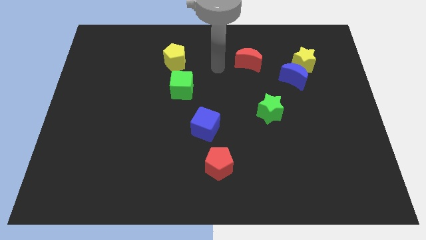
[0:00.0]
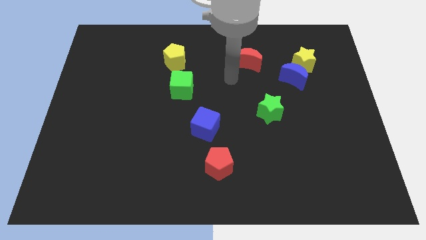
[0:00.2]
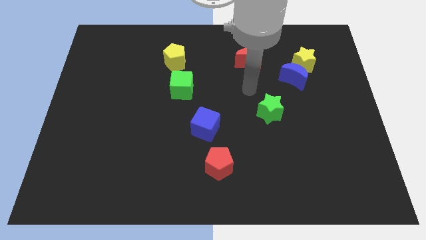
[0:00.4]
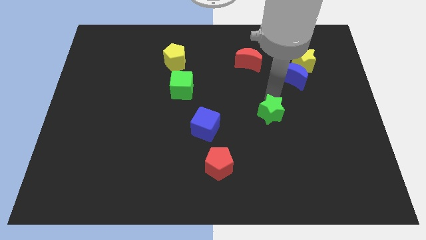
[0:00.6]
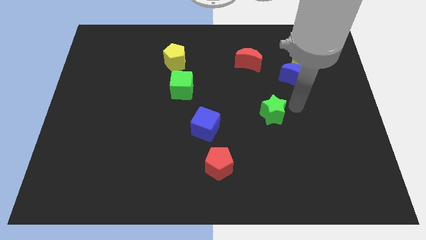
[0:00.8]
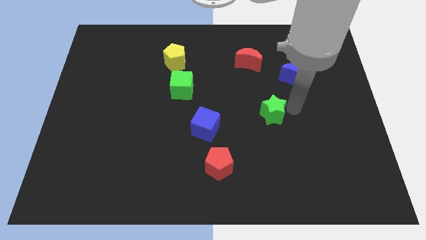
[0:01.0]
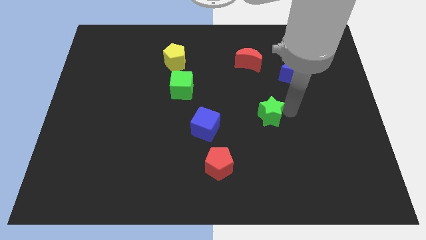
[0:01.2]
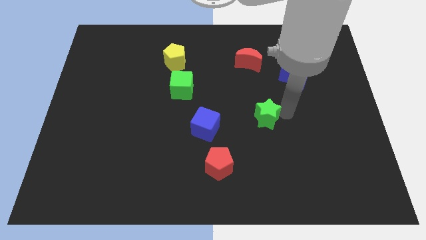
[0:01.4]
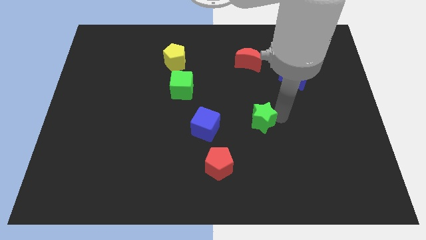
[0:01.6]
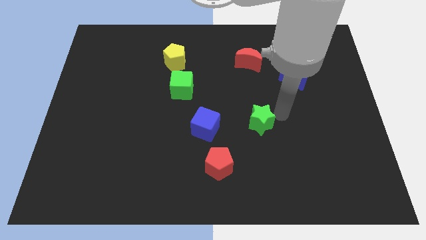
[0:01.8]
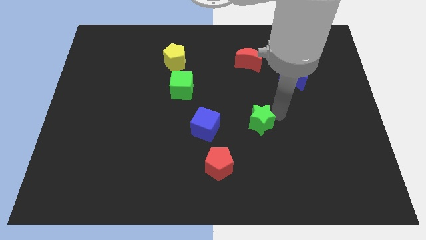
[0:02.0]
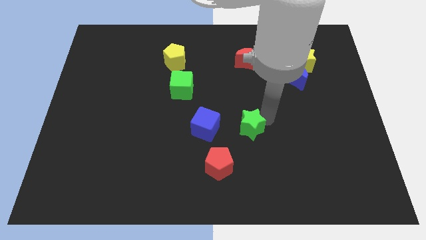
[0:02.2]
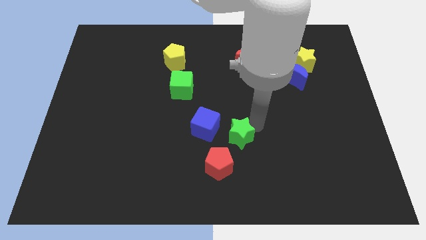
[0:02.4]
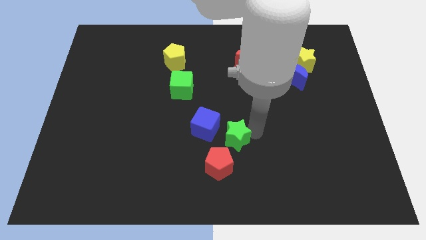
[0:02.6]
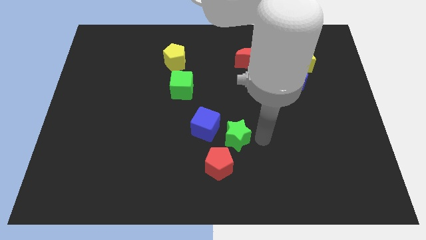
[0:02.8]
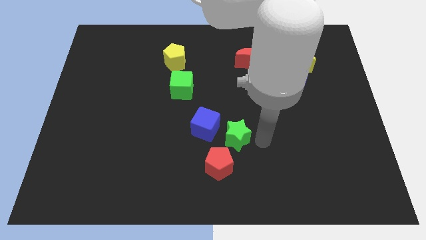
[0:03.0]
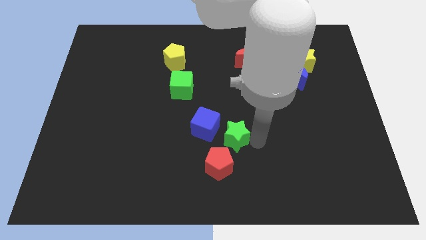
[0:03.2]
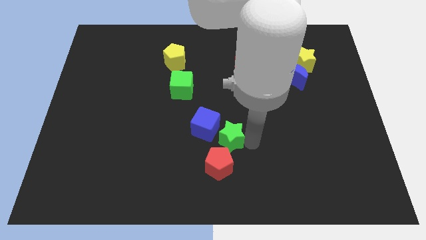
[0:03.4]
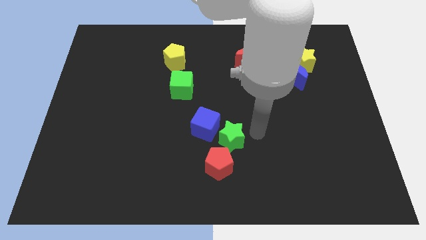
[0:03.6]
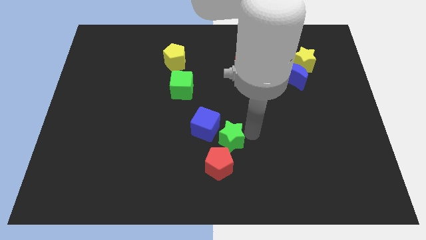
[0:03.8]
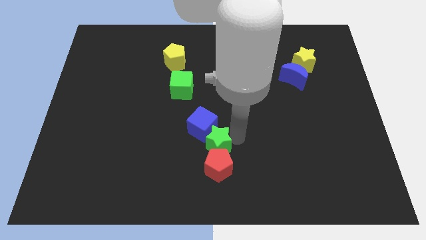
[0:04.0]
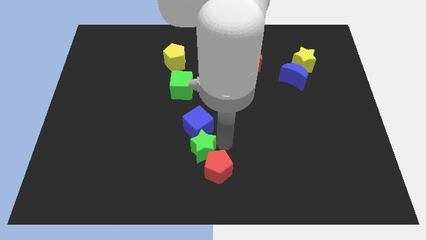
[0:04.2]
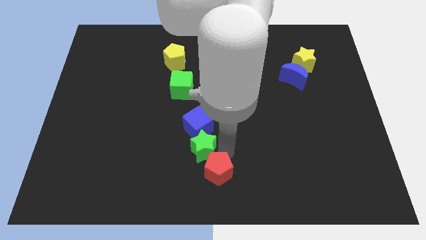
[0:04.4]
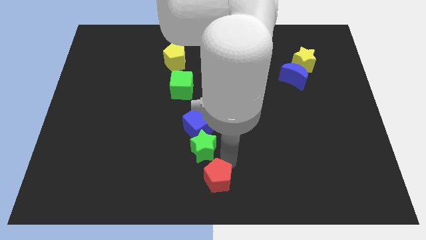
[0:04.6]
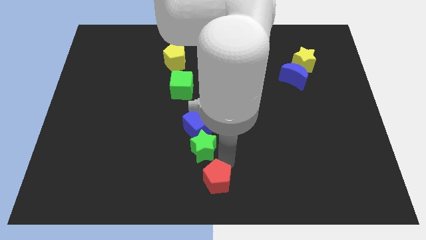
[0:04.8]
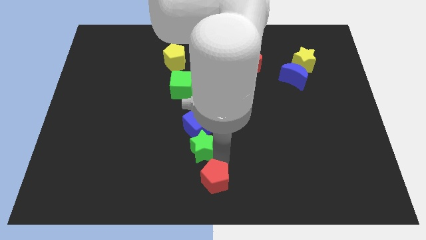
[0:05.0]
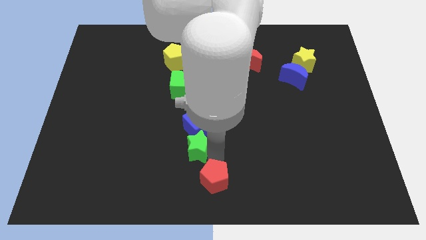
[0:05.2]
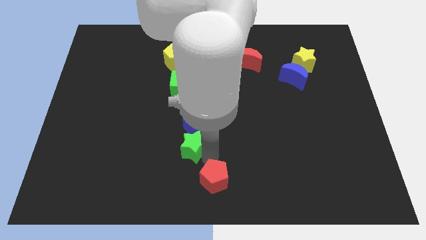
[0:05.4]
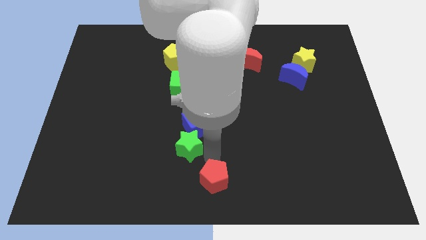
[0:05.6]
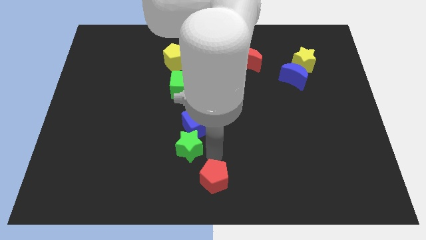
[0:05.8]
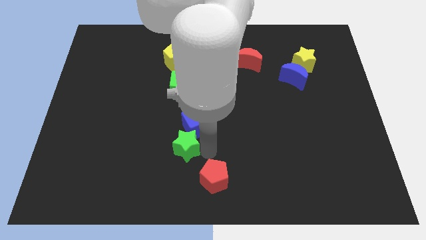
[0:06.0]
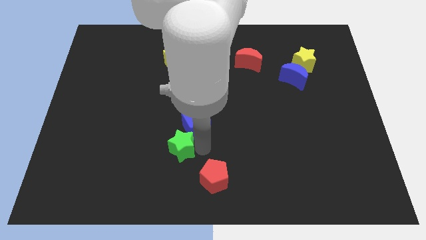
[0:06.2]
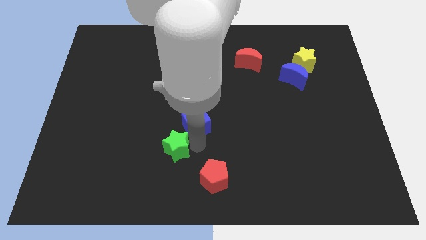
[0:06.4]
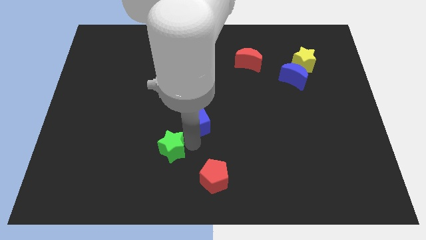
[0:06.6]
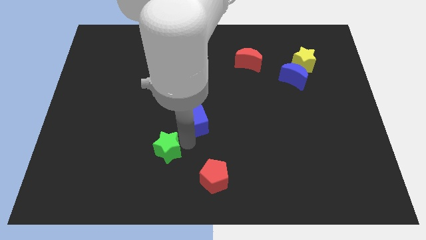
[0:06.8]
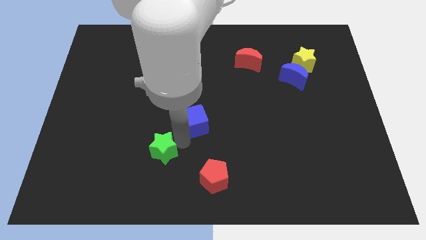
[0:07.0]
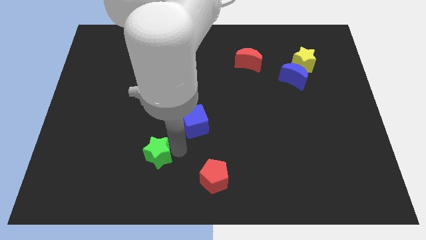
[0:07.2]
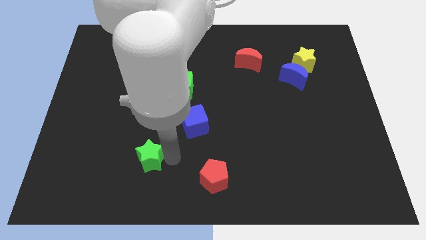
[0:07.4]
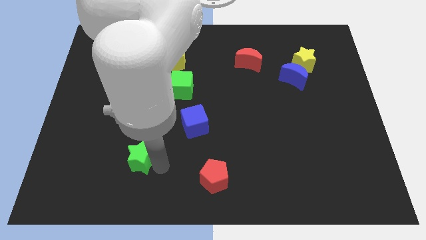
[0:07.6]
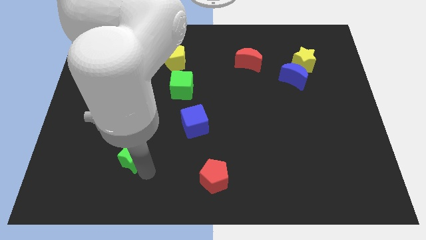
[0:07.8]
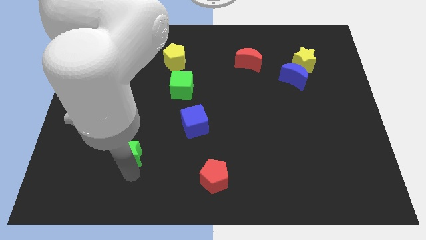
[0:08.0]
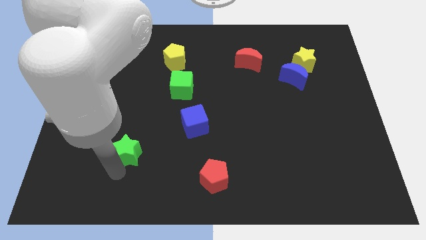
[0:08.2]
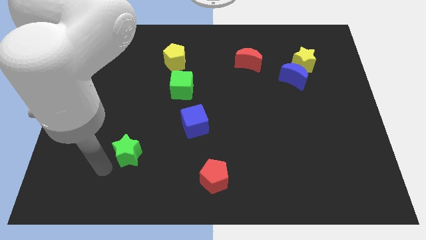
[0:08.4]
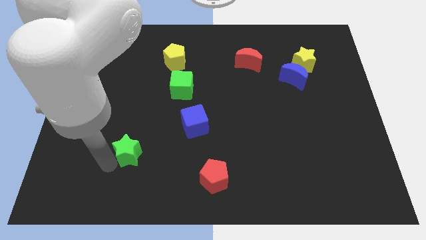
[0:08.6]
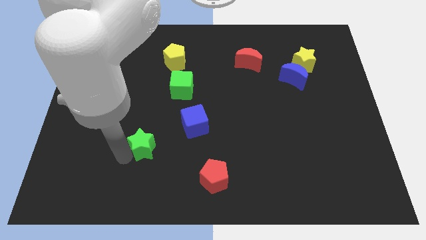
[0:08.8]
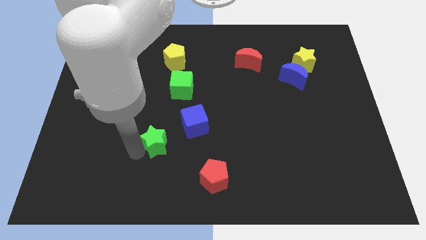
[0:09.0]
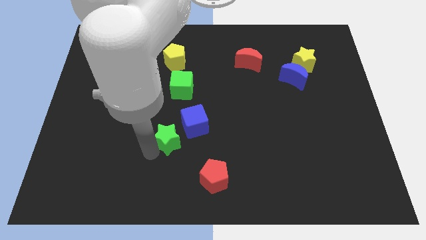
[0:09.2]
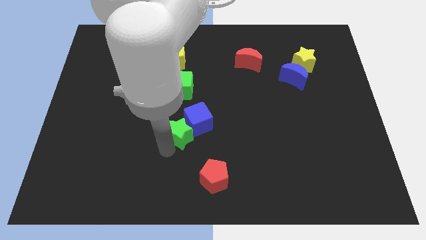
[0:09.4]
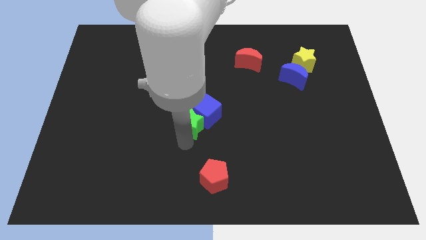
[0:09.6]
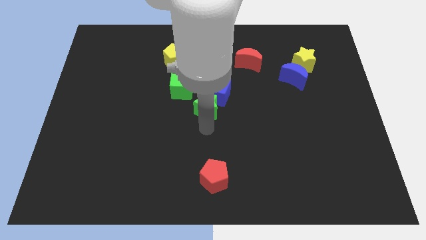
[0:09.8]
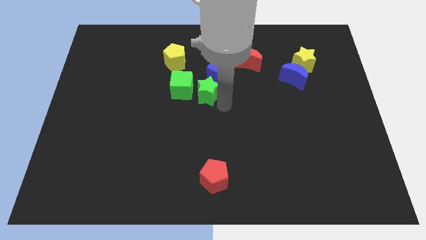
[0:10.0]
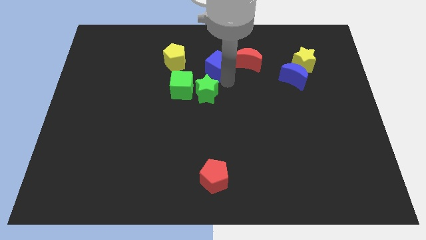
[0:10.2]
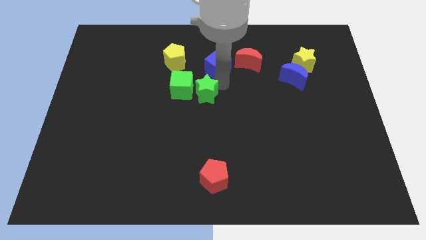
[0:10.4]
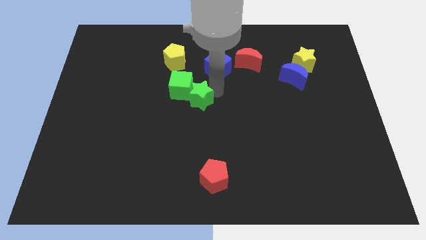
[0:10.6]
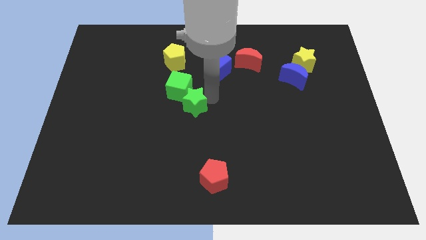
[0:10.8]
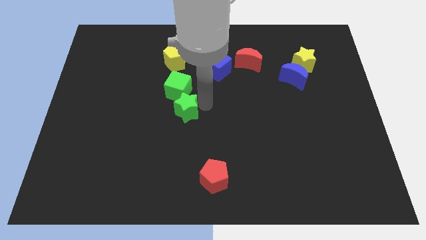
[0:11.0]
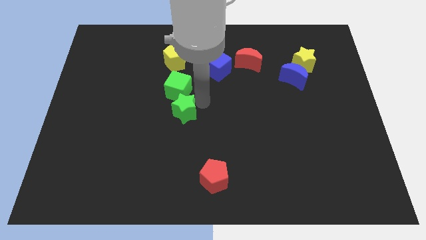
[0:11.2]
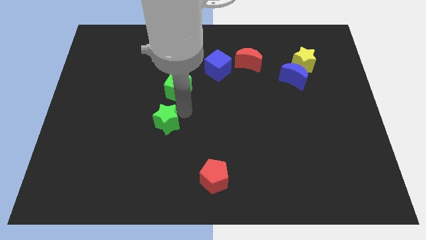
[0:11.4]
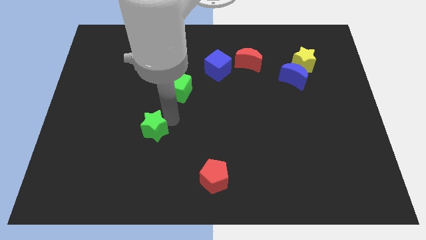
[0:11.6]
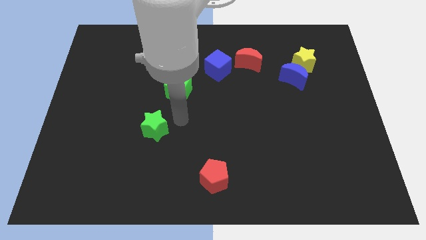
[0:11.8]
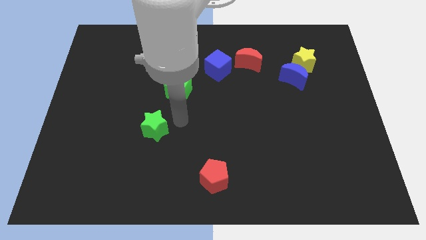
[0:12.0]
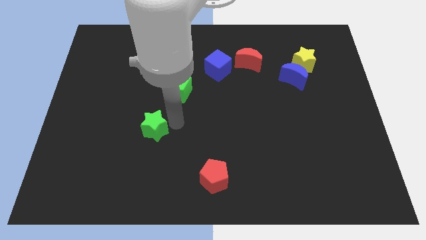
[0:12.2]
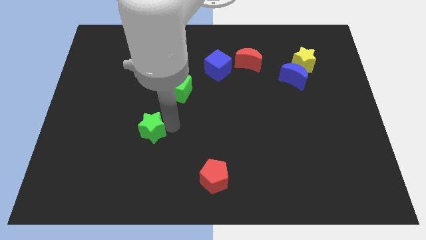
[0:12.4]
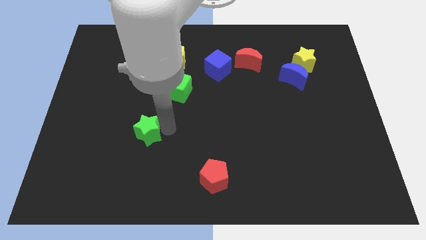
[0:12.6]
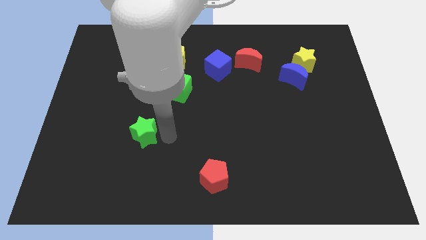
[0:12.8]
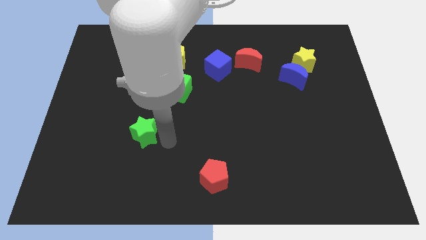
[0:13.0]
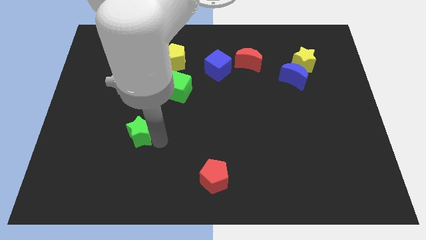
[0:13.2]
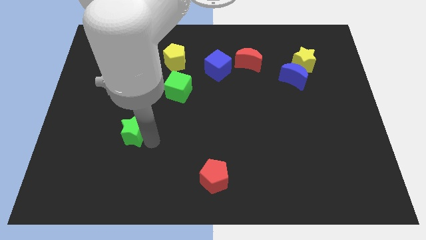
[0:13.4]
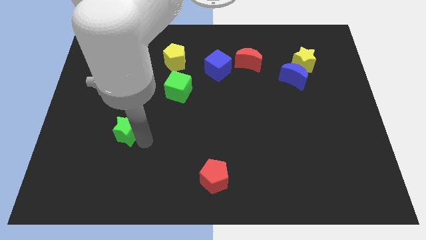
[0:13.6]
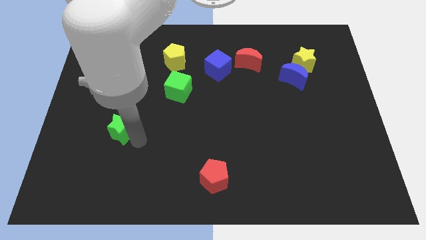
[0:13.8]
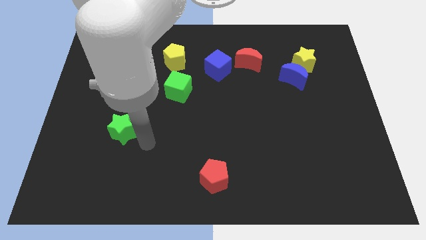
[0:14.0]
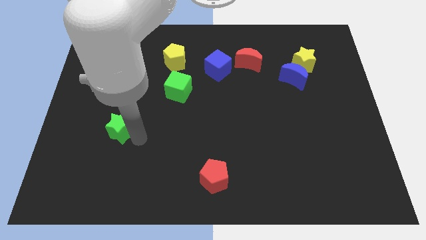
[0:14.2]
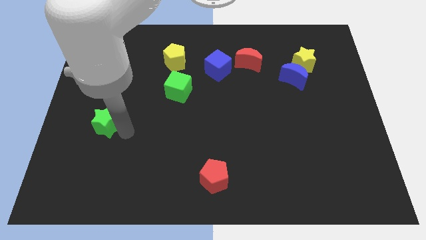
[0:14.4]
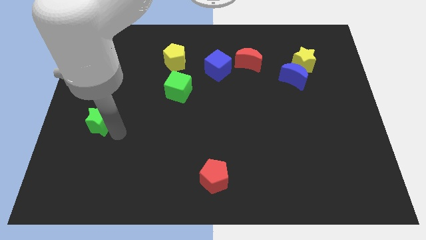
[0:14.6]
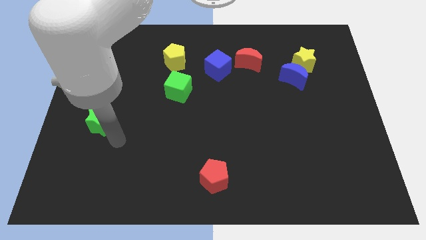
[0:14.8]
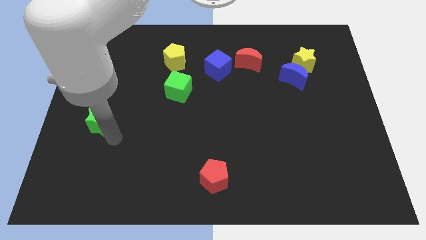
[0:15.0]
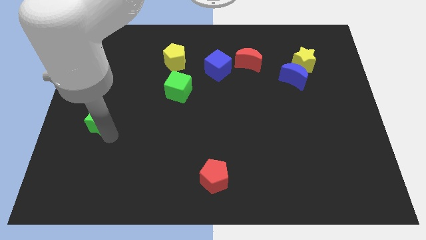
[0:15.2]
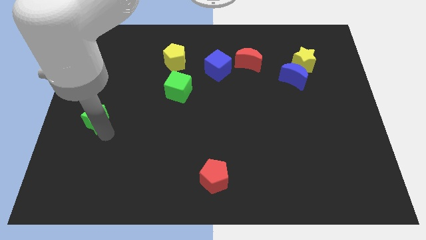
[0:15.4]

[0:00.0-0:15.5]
put the green star to the center left
